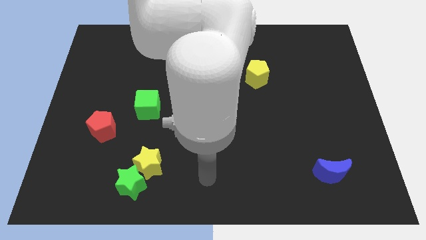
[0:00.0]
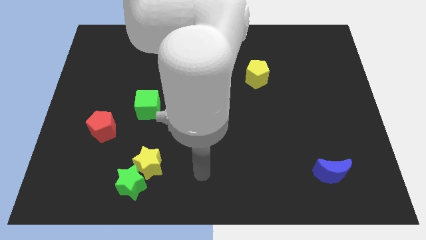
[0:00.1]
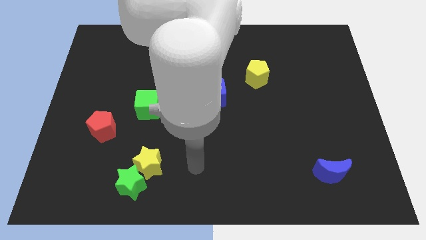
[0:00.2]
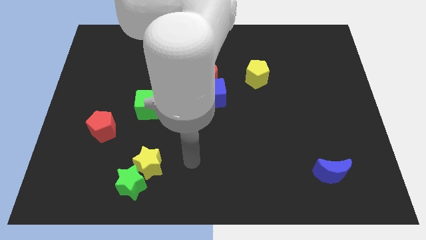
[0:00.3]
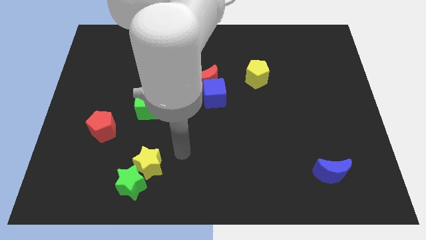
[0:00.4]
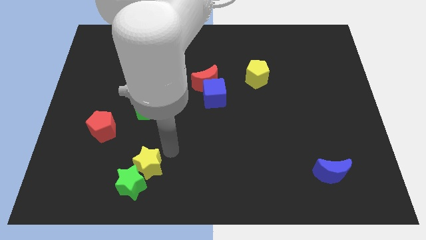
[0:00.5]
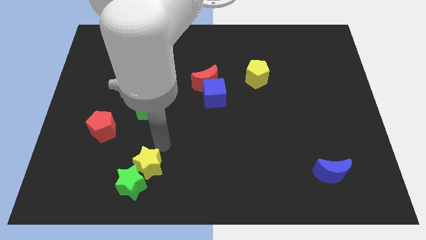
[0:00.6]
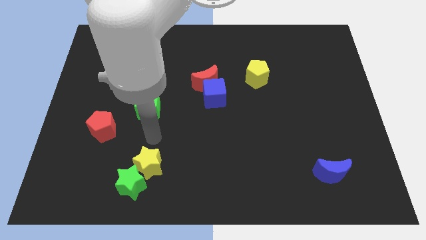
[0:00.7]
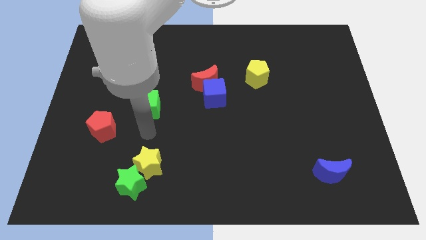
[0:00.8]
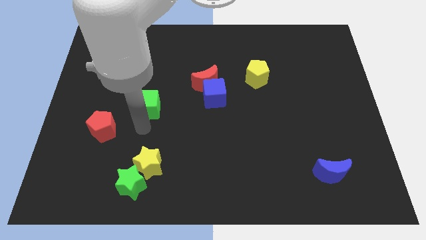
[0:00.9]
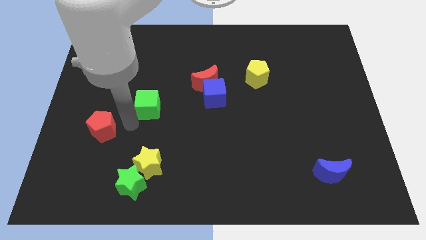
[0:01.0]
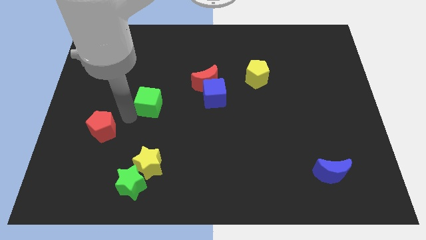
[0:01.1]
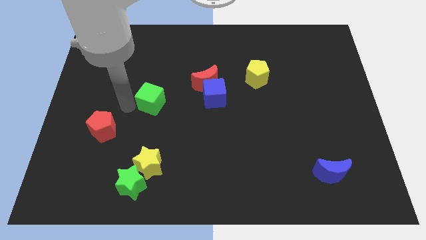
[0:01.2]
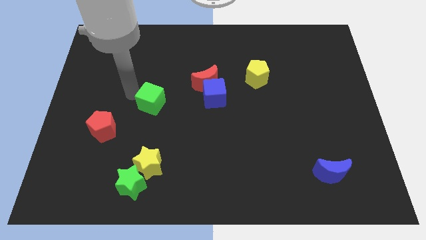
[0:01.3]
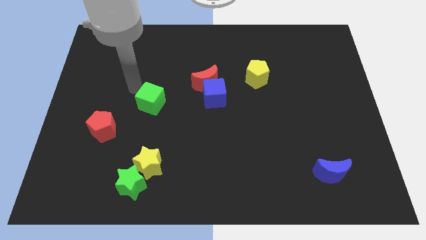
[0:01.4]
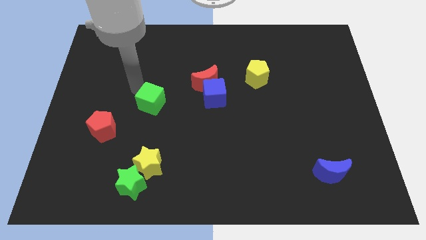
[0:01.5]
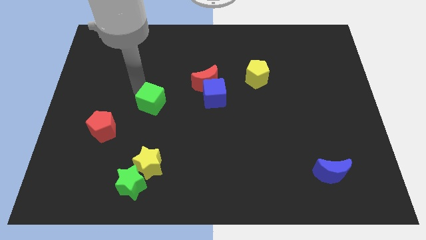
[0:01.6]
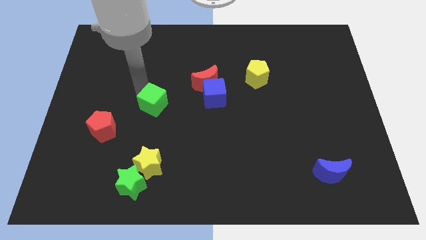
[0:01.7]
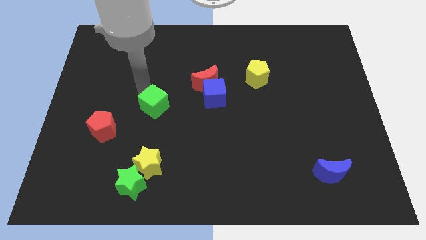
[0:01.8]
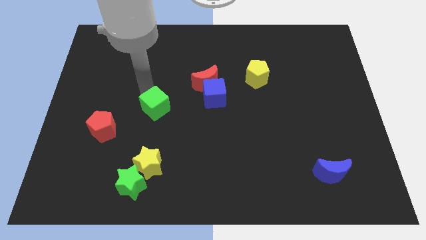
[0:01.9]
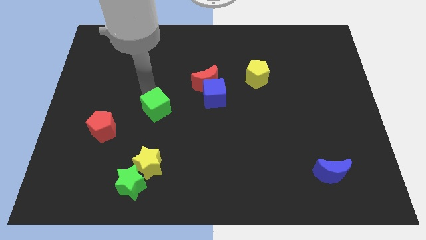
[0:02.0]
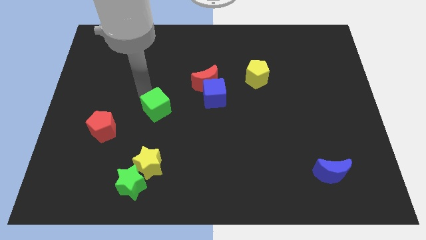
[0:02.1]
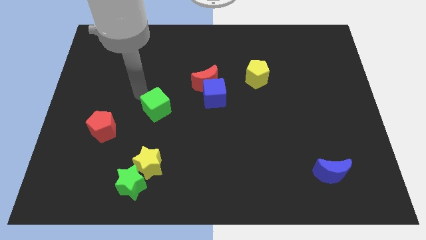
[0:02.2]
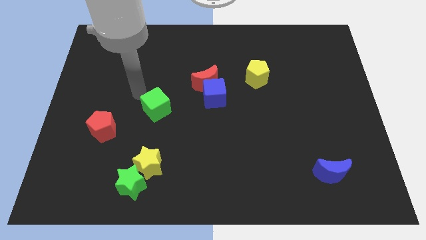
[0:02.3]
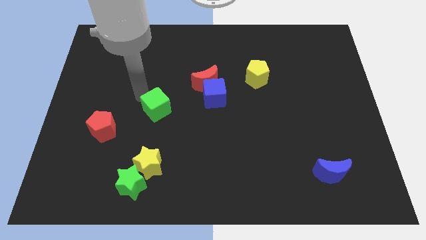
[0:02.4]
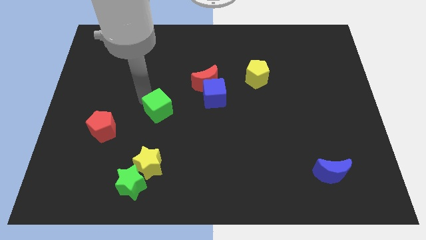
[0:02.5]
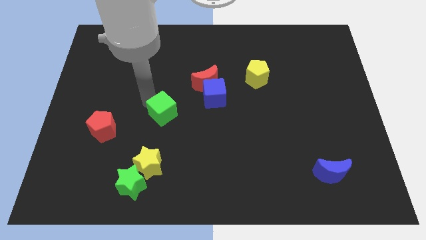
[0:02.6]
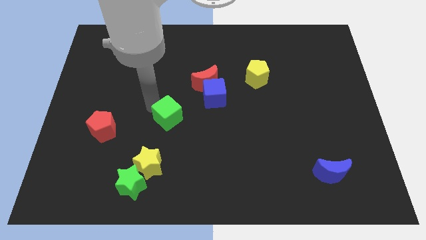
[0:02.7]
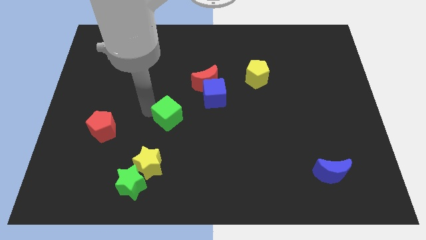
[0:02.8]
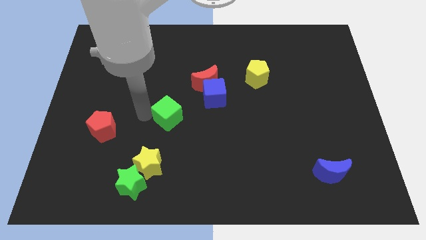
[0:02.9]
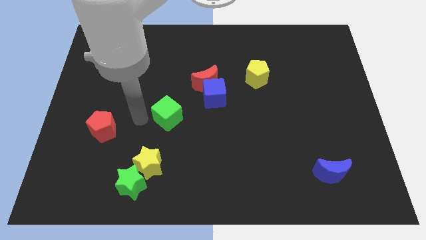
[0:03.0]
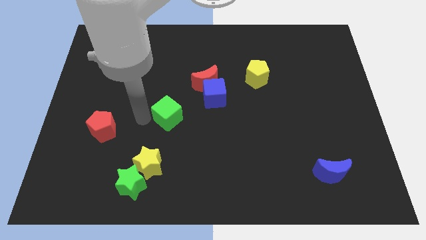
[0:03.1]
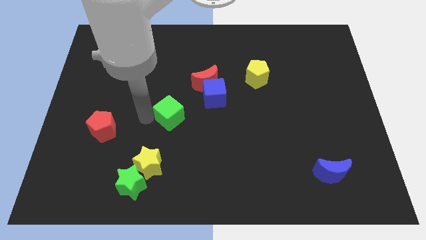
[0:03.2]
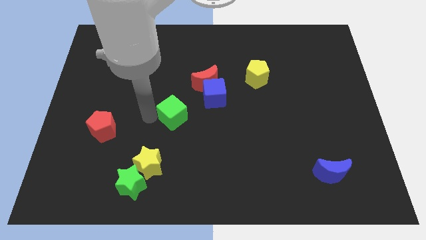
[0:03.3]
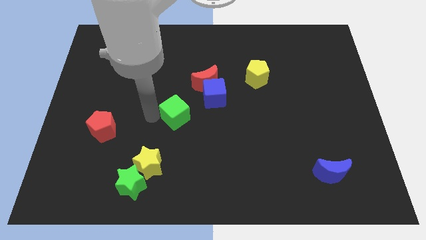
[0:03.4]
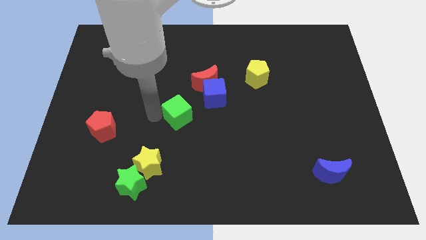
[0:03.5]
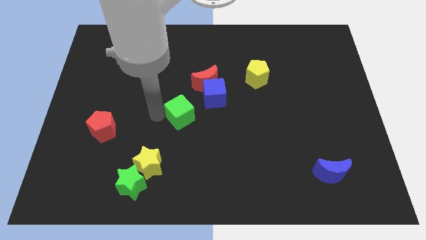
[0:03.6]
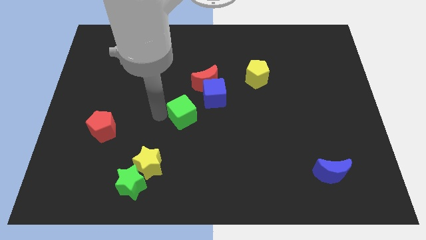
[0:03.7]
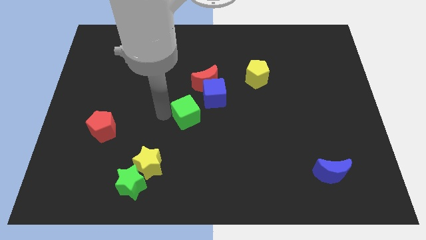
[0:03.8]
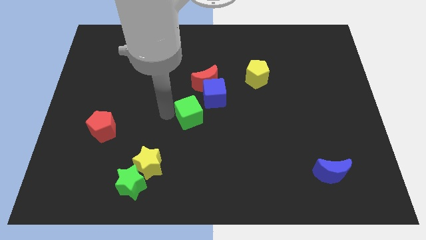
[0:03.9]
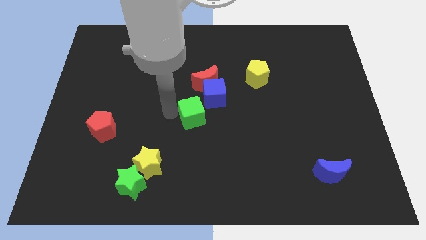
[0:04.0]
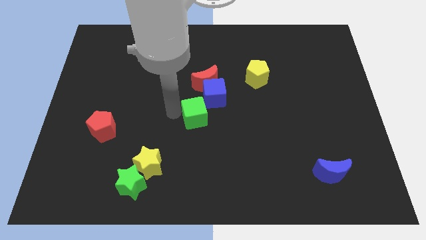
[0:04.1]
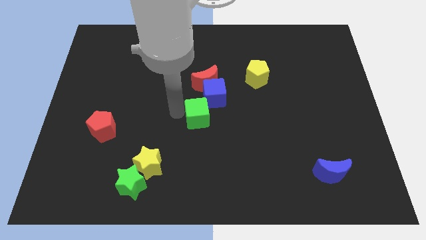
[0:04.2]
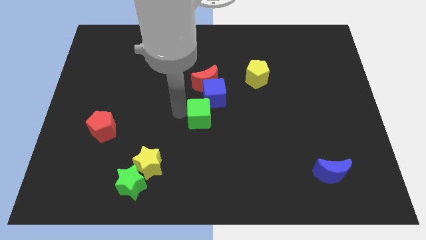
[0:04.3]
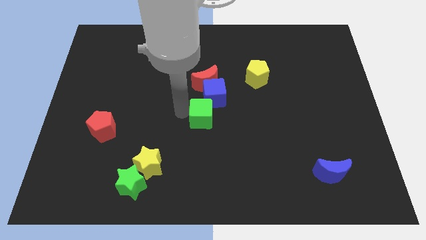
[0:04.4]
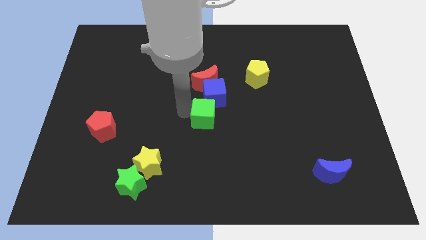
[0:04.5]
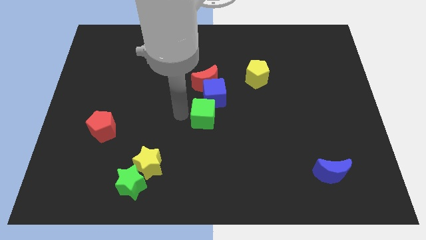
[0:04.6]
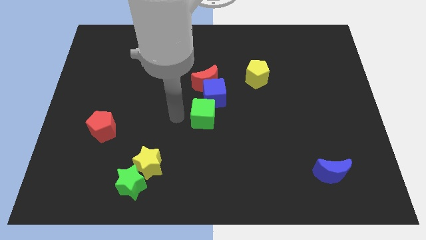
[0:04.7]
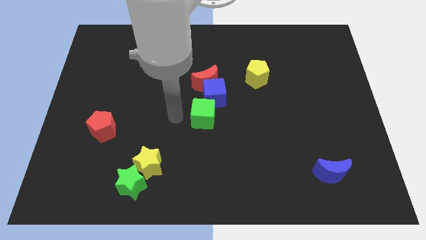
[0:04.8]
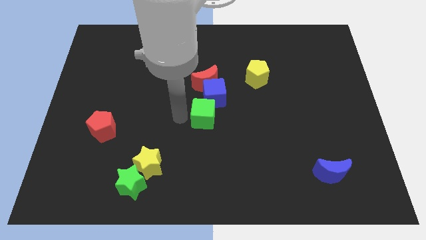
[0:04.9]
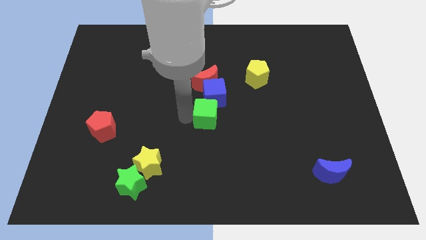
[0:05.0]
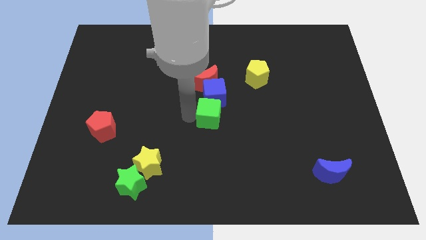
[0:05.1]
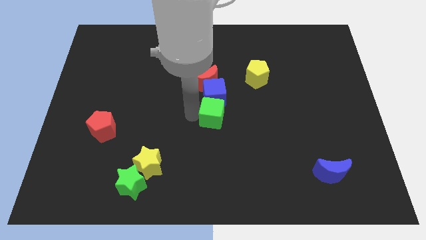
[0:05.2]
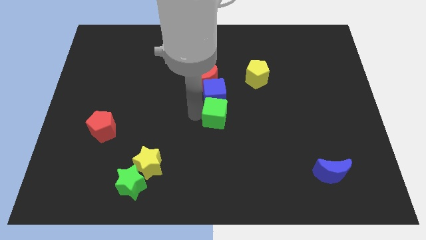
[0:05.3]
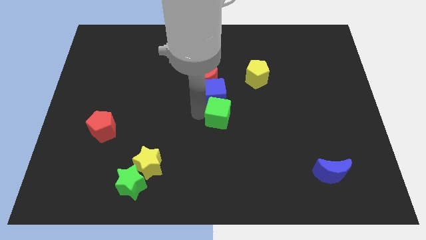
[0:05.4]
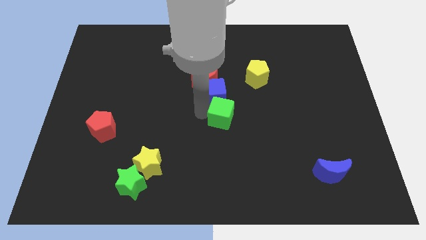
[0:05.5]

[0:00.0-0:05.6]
put the green cube to the bottom right of the red moon

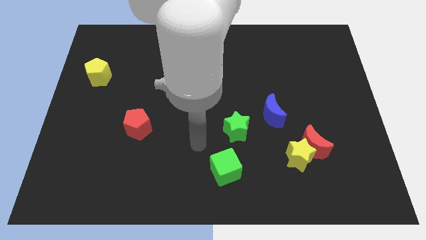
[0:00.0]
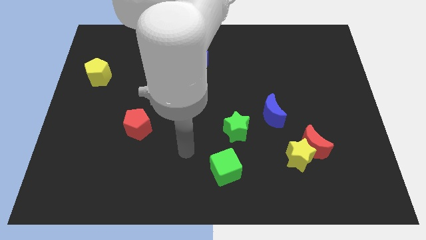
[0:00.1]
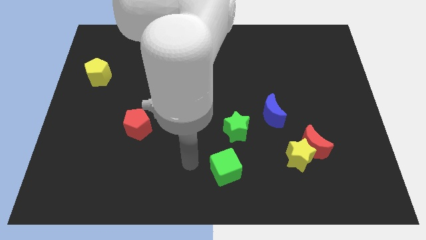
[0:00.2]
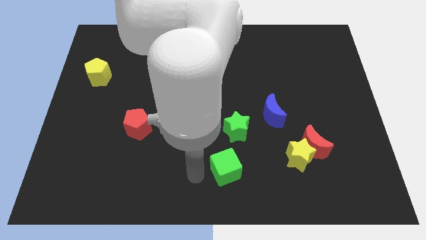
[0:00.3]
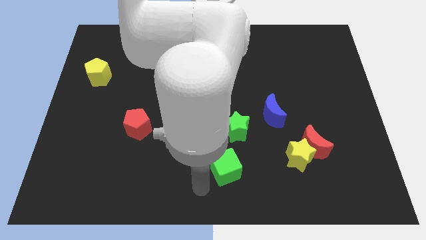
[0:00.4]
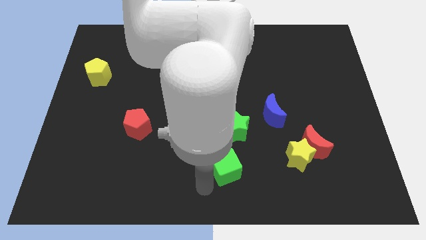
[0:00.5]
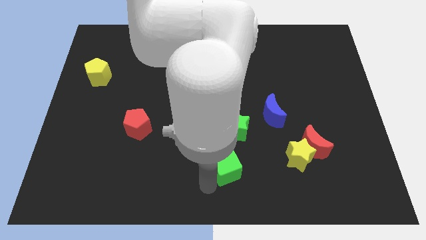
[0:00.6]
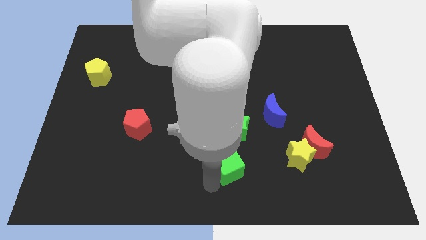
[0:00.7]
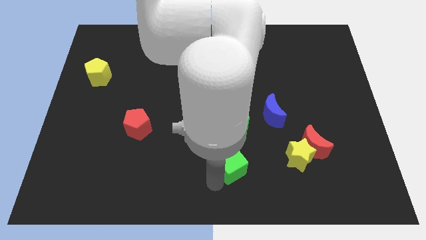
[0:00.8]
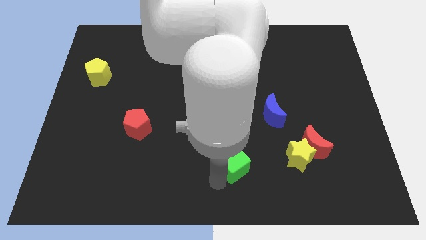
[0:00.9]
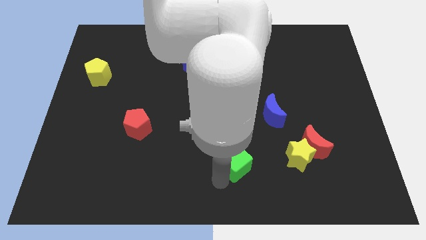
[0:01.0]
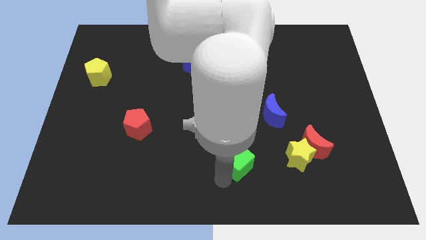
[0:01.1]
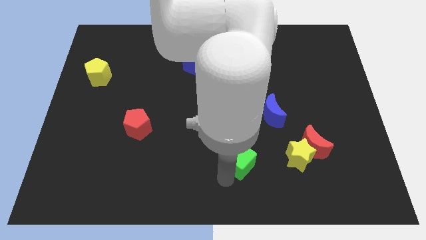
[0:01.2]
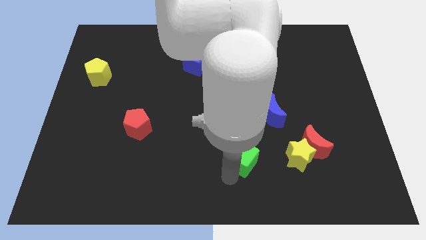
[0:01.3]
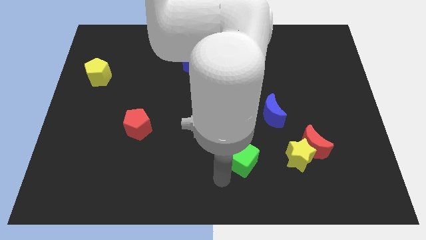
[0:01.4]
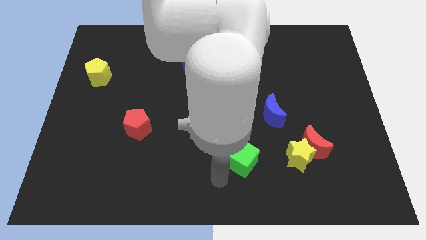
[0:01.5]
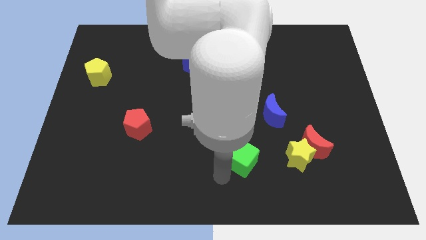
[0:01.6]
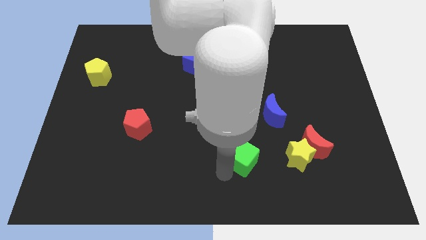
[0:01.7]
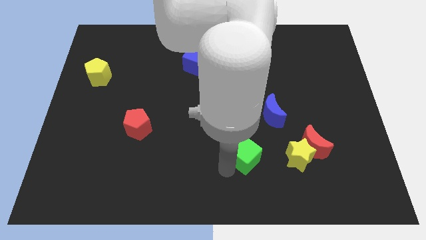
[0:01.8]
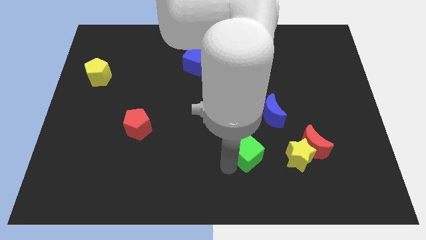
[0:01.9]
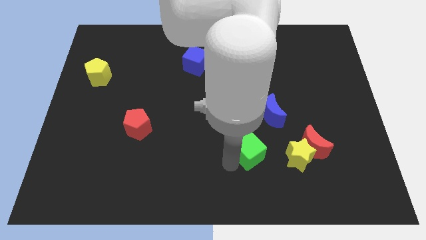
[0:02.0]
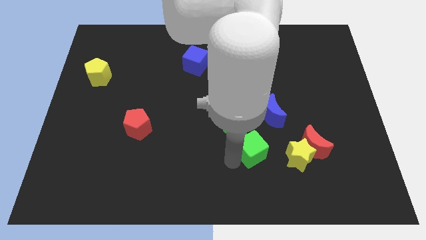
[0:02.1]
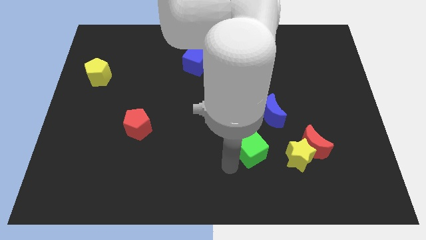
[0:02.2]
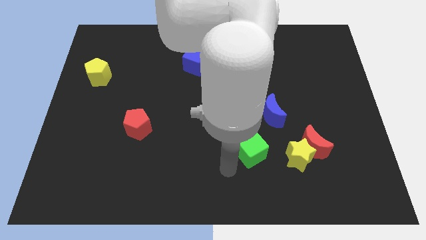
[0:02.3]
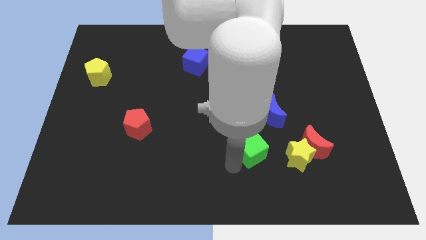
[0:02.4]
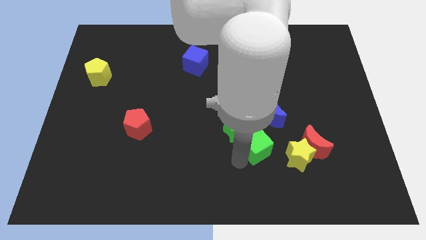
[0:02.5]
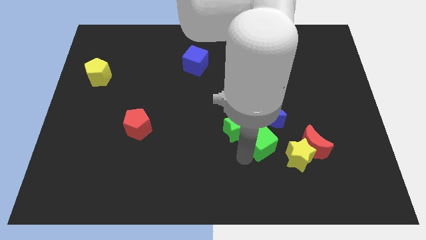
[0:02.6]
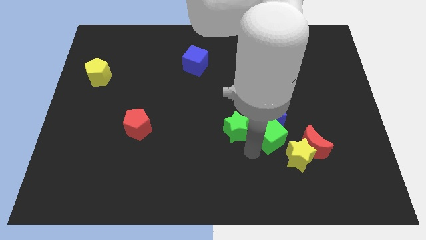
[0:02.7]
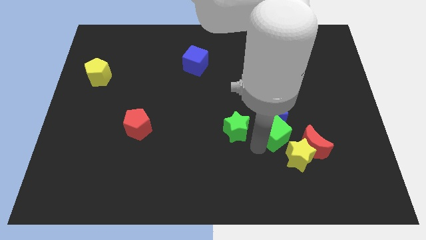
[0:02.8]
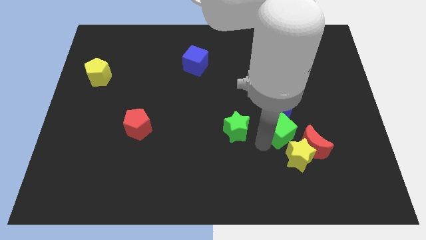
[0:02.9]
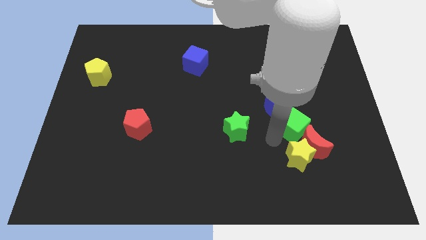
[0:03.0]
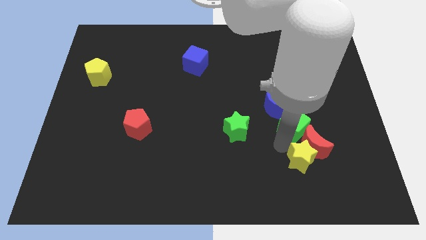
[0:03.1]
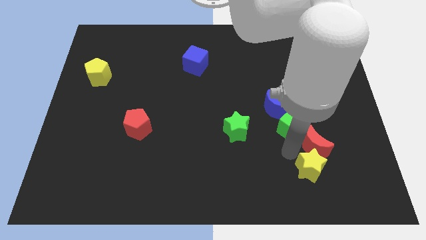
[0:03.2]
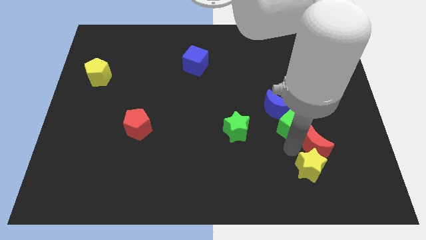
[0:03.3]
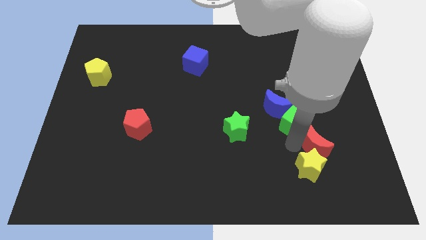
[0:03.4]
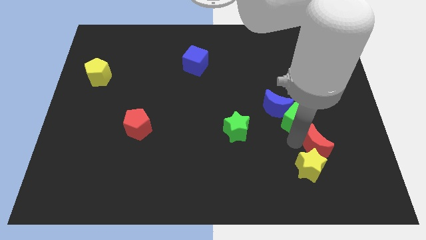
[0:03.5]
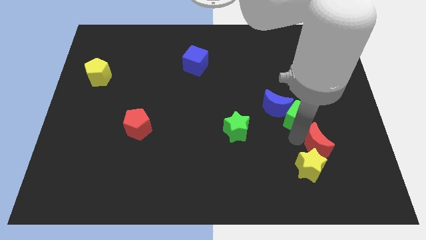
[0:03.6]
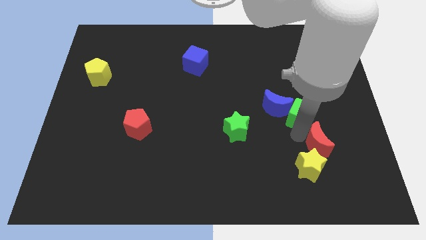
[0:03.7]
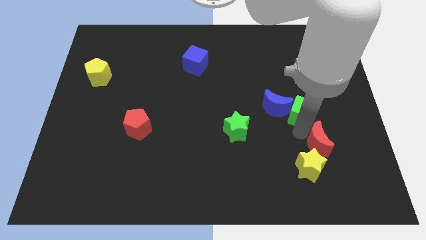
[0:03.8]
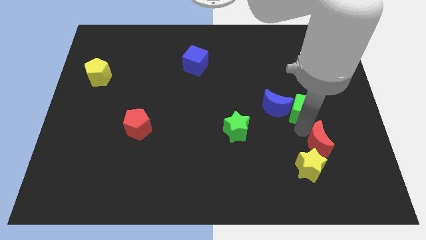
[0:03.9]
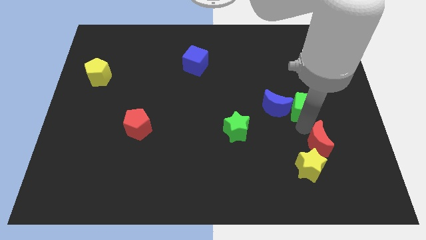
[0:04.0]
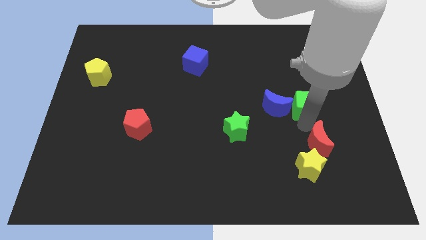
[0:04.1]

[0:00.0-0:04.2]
move the green cube to the top right side of the blue moon
